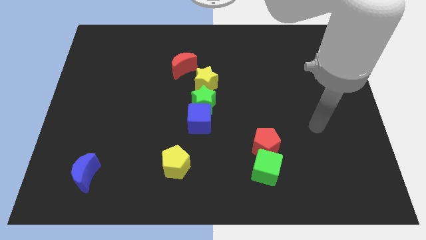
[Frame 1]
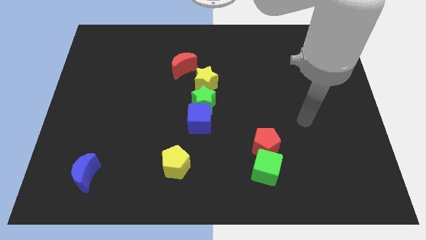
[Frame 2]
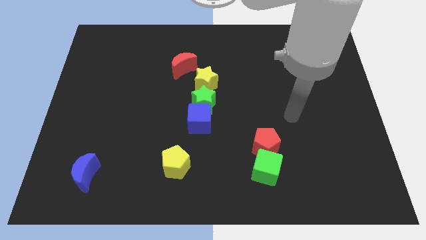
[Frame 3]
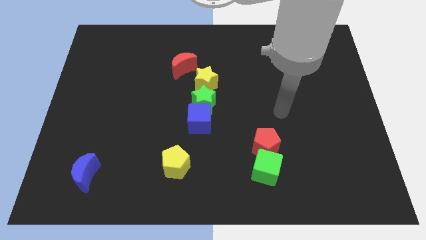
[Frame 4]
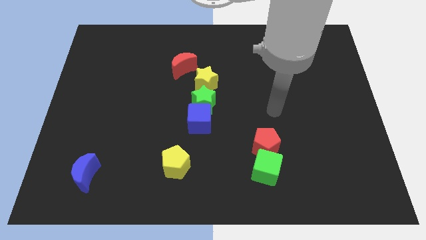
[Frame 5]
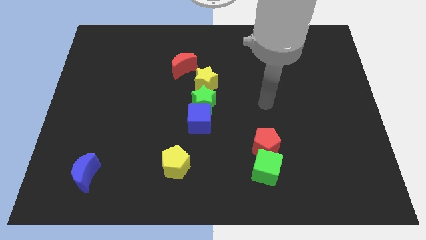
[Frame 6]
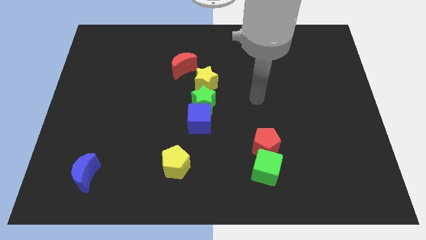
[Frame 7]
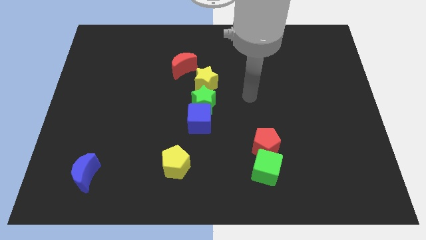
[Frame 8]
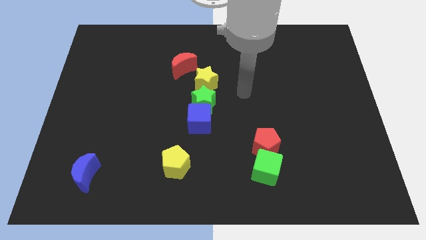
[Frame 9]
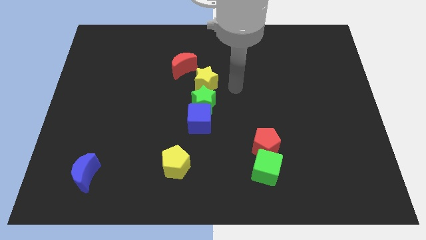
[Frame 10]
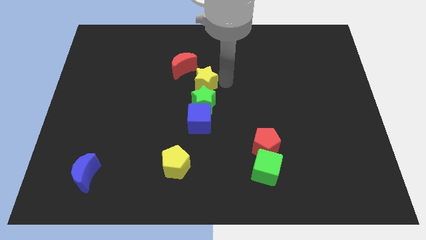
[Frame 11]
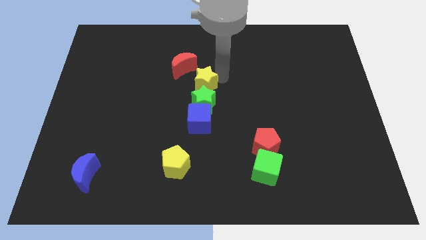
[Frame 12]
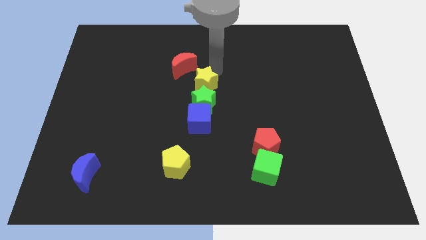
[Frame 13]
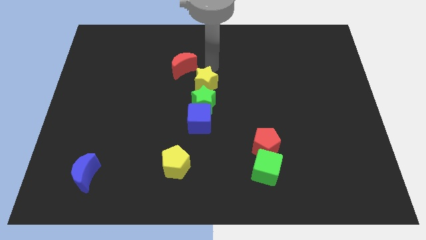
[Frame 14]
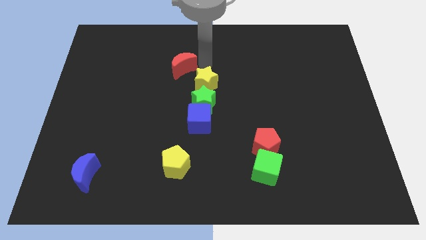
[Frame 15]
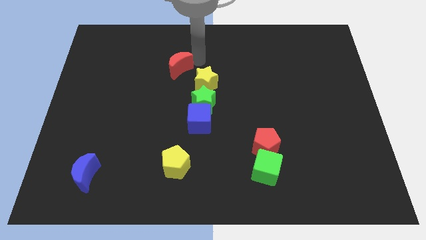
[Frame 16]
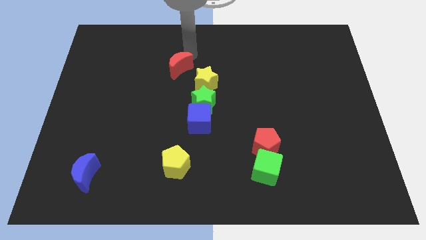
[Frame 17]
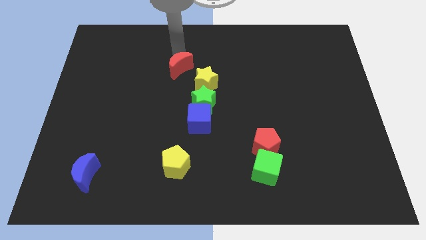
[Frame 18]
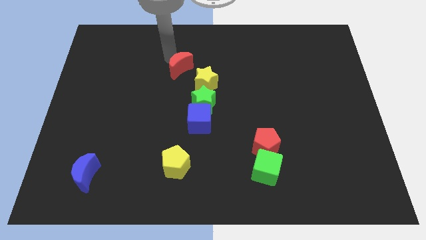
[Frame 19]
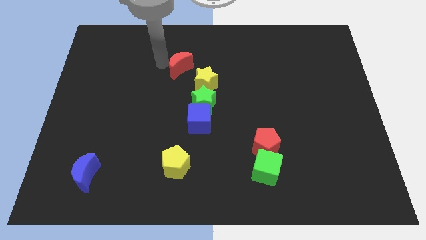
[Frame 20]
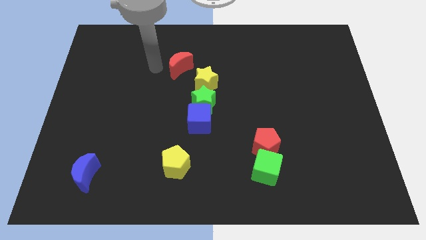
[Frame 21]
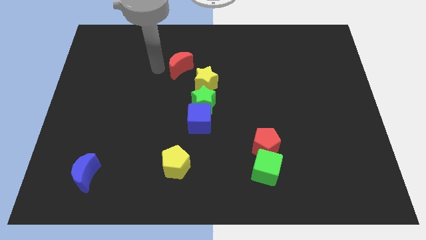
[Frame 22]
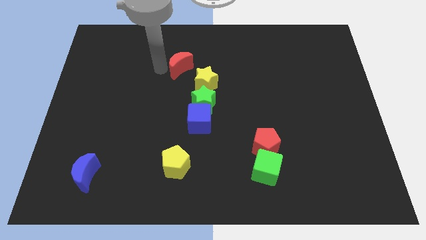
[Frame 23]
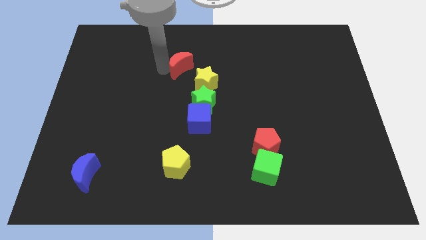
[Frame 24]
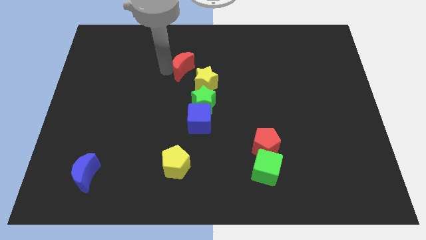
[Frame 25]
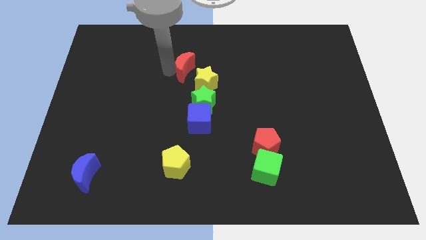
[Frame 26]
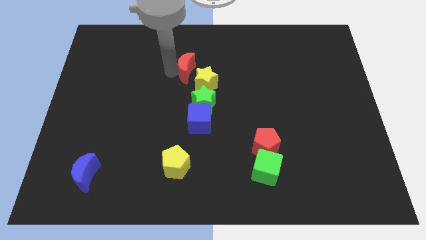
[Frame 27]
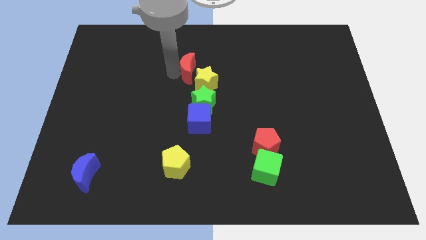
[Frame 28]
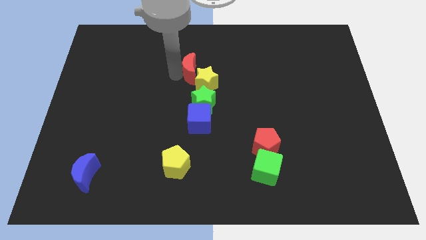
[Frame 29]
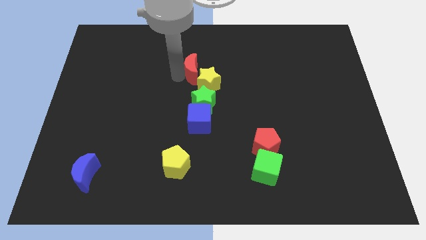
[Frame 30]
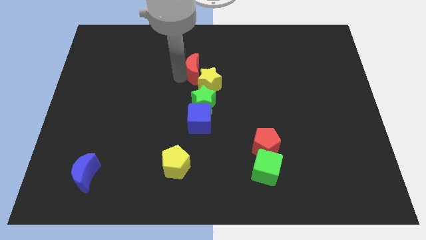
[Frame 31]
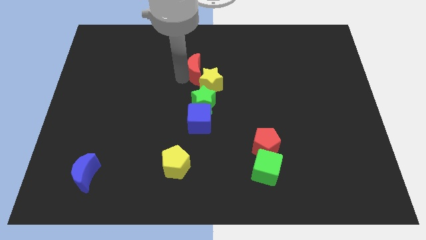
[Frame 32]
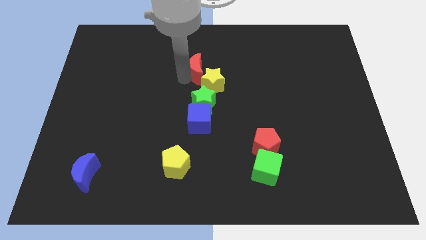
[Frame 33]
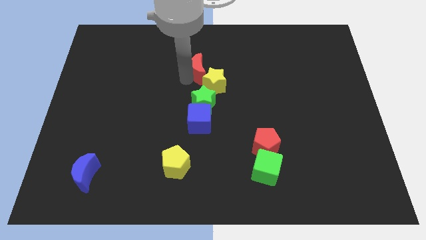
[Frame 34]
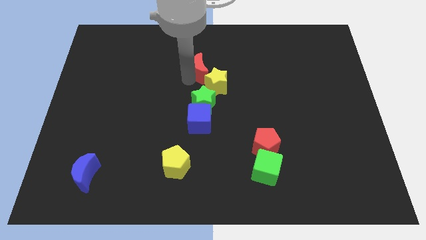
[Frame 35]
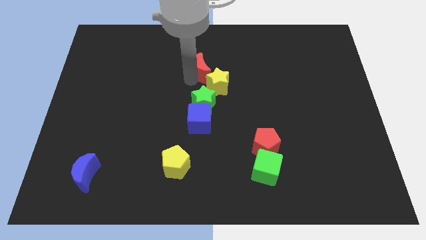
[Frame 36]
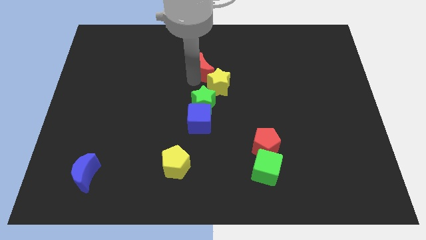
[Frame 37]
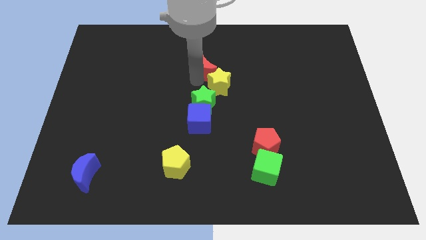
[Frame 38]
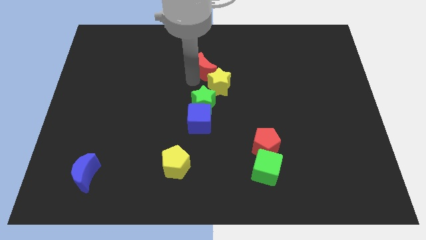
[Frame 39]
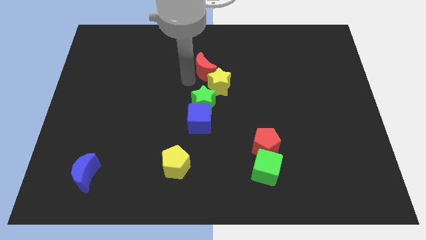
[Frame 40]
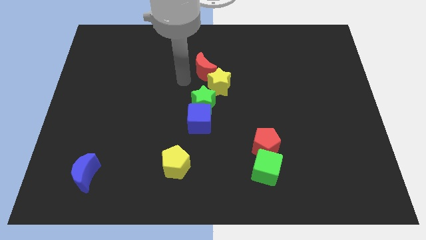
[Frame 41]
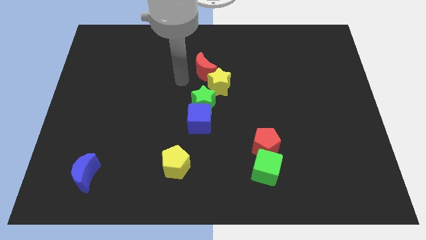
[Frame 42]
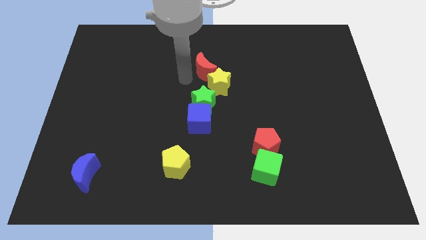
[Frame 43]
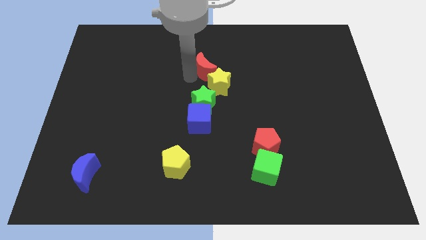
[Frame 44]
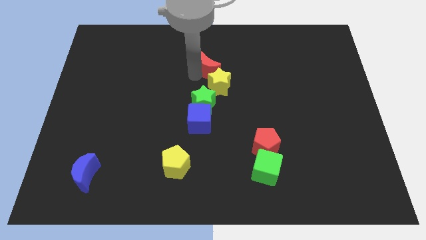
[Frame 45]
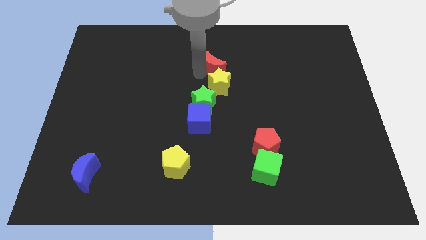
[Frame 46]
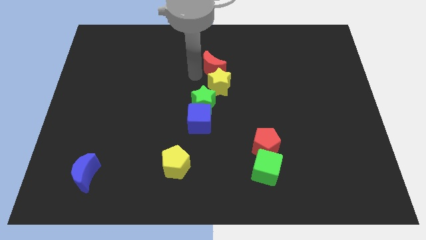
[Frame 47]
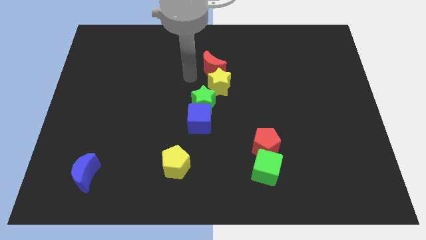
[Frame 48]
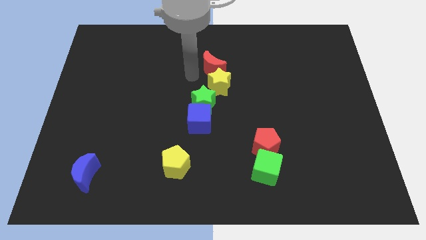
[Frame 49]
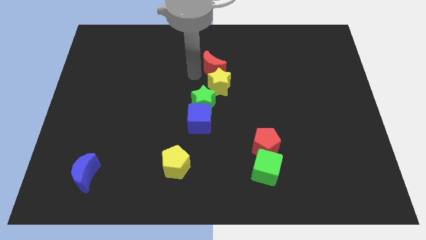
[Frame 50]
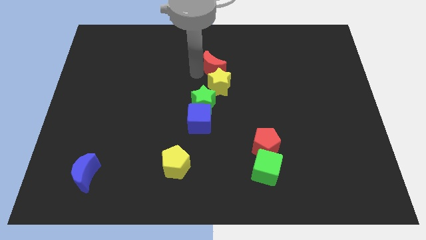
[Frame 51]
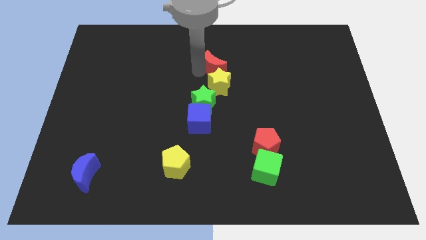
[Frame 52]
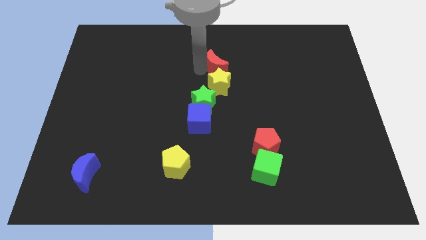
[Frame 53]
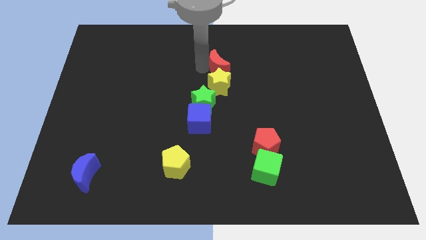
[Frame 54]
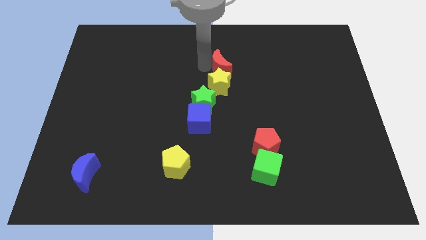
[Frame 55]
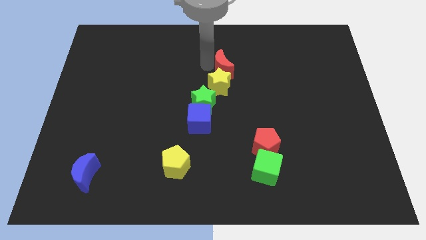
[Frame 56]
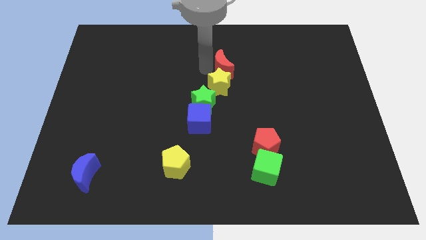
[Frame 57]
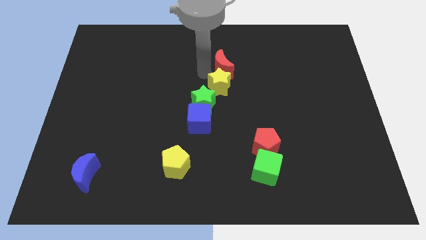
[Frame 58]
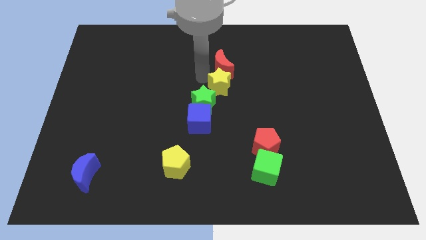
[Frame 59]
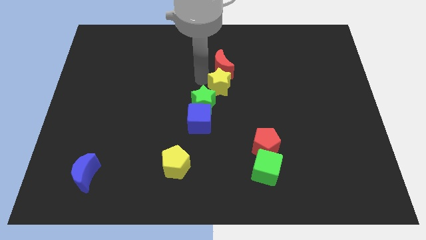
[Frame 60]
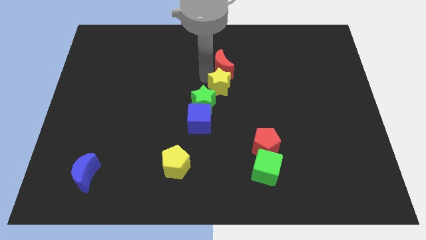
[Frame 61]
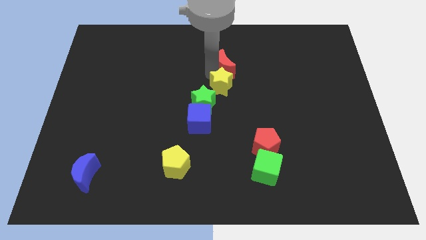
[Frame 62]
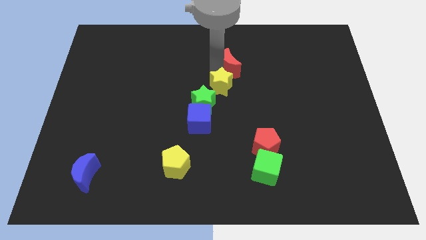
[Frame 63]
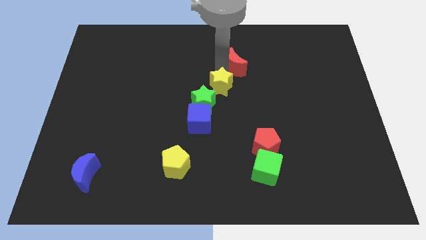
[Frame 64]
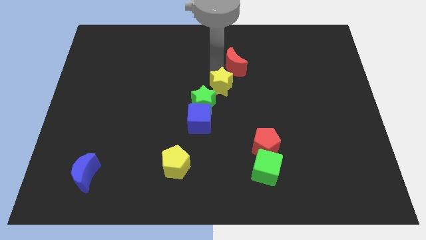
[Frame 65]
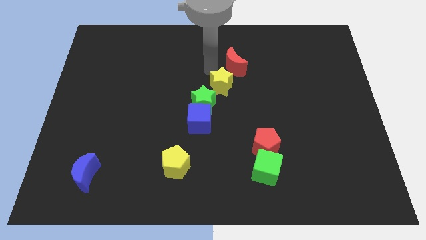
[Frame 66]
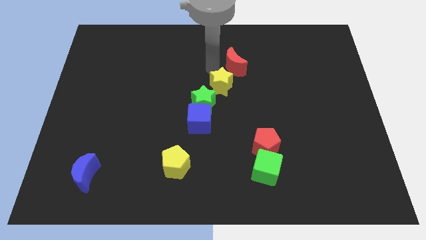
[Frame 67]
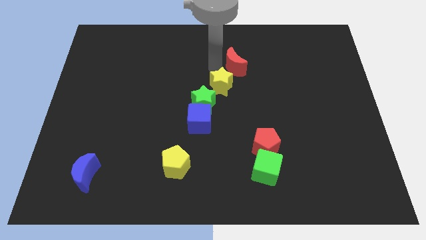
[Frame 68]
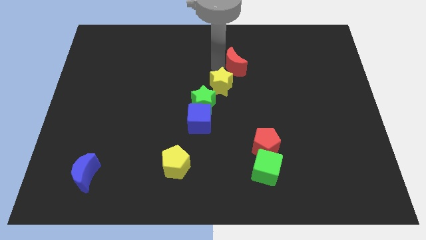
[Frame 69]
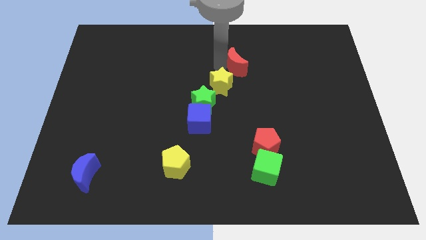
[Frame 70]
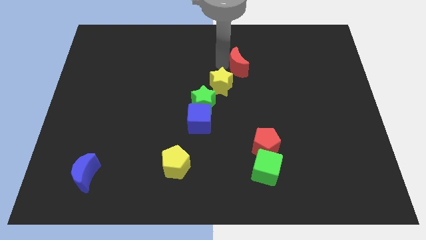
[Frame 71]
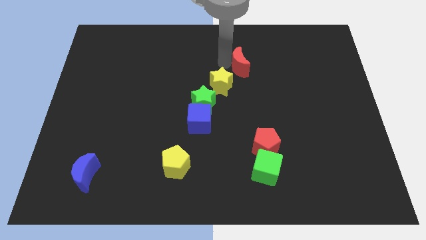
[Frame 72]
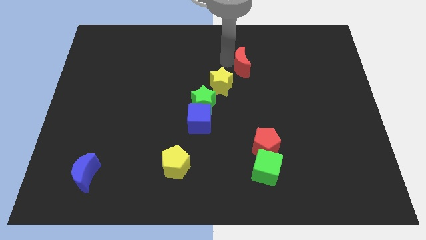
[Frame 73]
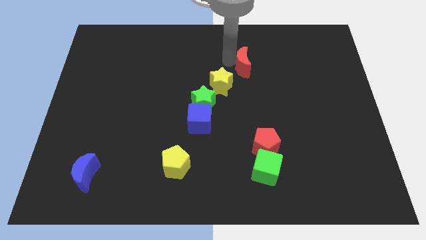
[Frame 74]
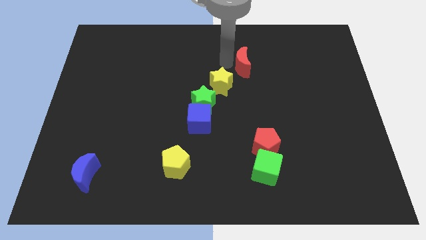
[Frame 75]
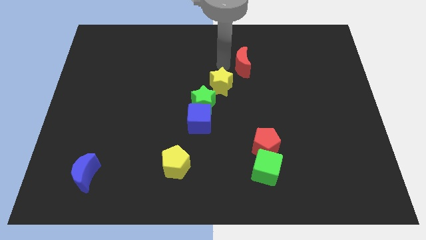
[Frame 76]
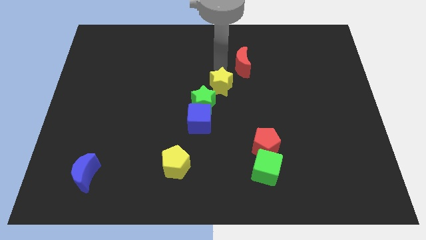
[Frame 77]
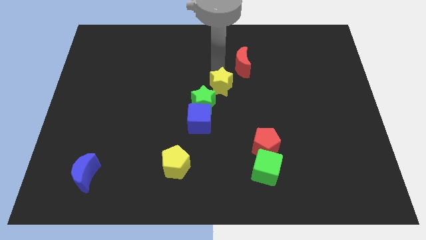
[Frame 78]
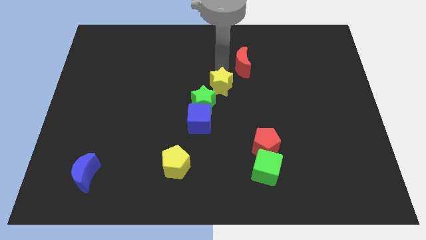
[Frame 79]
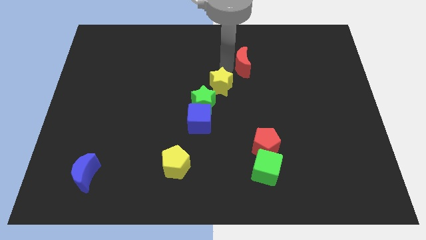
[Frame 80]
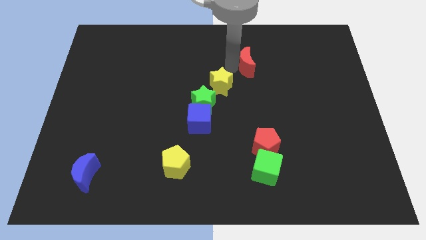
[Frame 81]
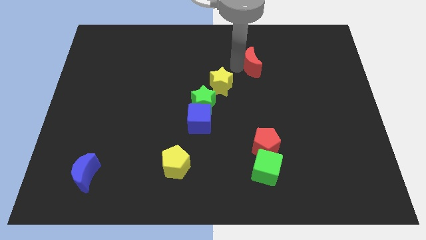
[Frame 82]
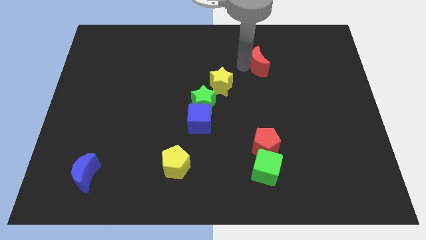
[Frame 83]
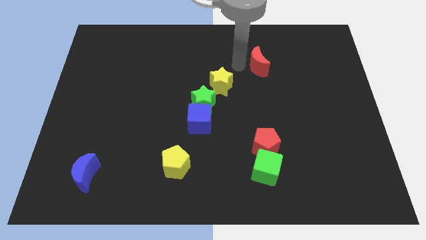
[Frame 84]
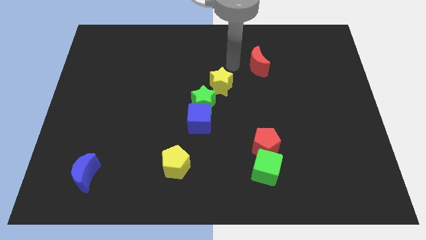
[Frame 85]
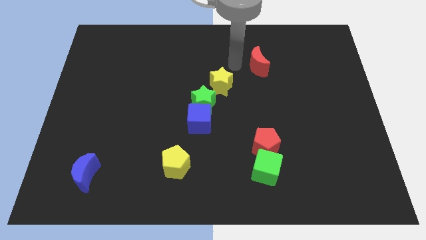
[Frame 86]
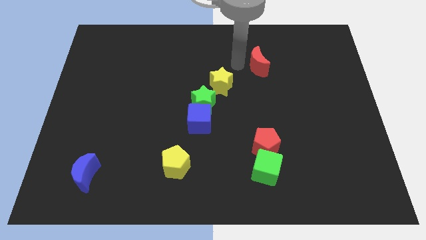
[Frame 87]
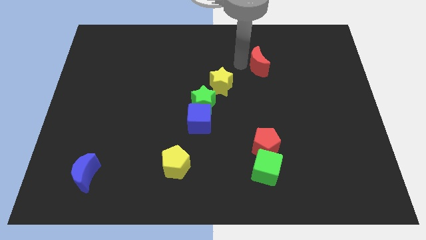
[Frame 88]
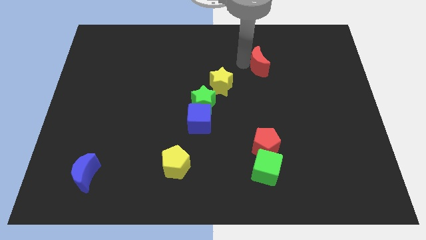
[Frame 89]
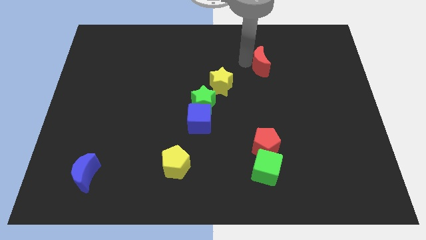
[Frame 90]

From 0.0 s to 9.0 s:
slide the red moon to the right
